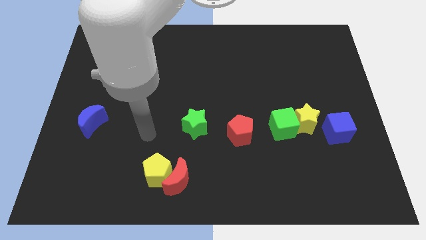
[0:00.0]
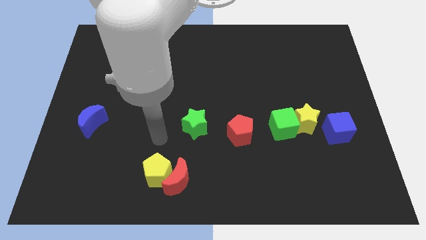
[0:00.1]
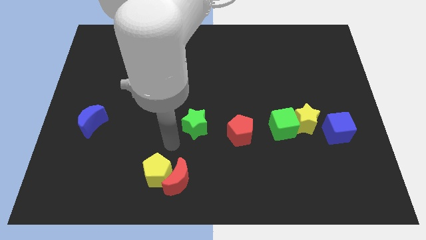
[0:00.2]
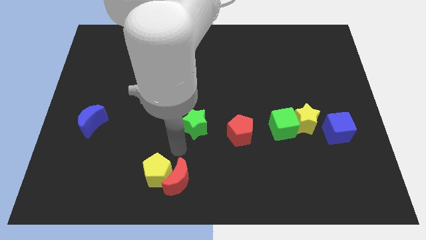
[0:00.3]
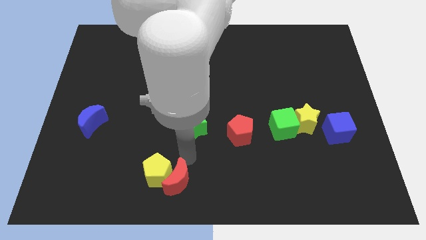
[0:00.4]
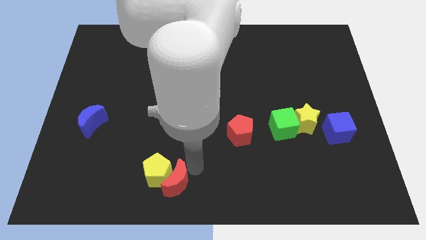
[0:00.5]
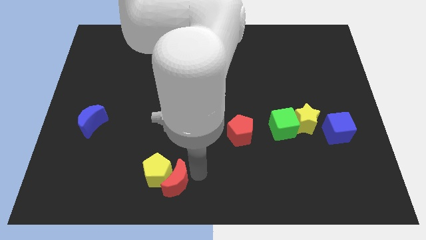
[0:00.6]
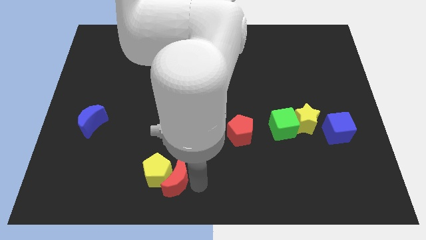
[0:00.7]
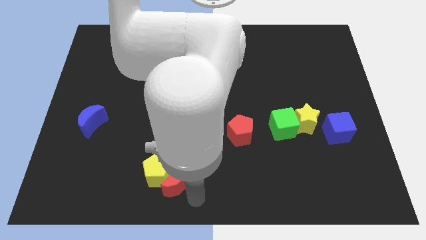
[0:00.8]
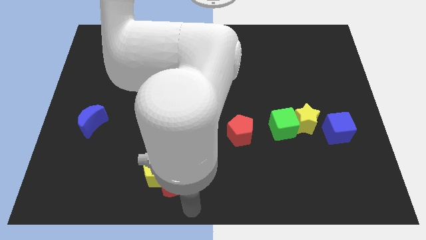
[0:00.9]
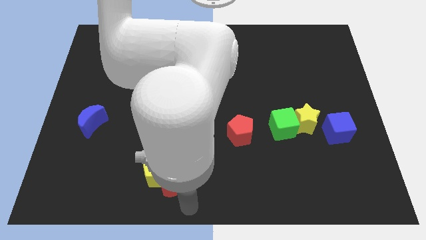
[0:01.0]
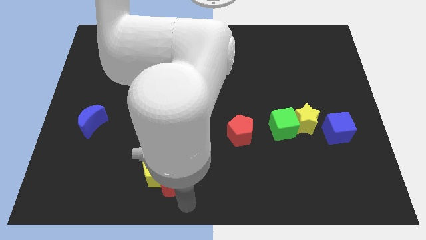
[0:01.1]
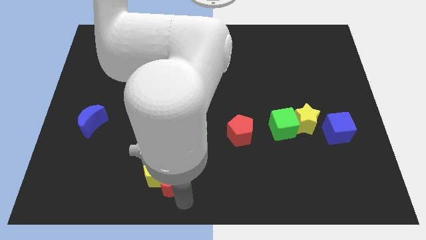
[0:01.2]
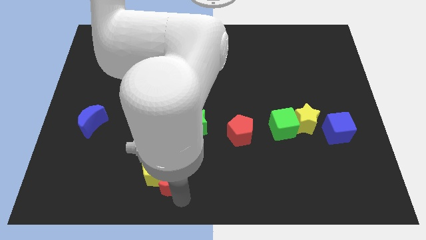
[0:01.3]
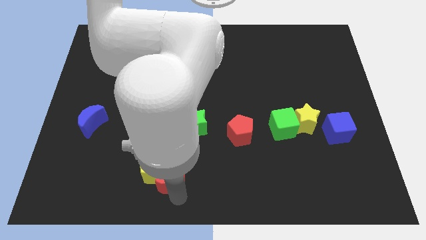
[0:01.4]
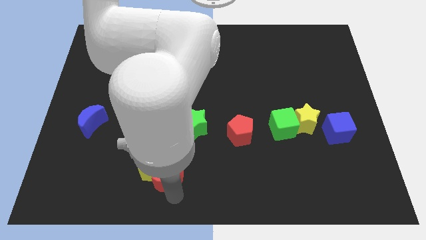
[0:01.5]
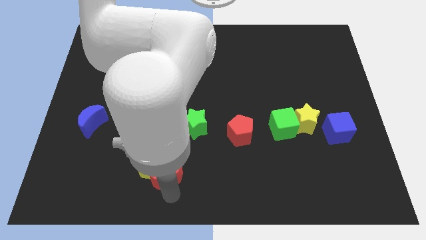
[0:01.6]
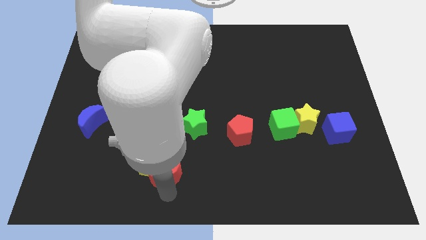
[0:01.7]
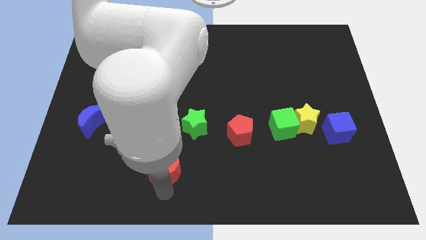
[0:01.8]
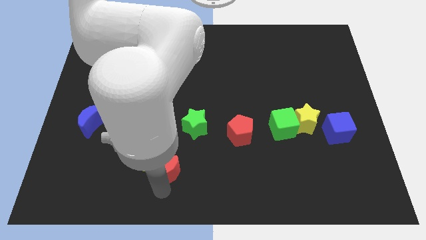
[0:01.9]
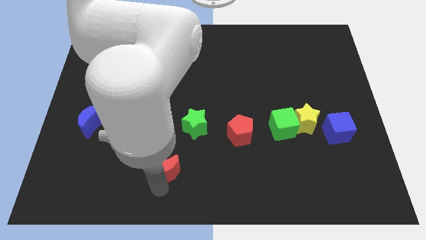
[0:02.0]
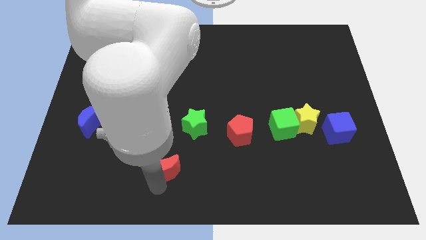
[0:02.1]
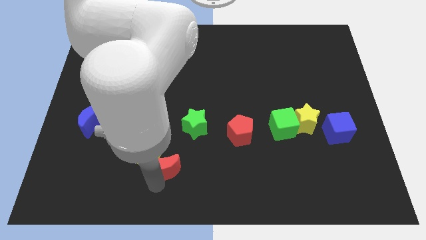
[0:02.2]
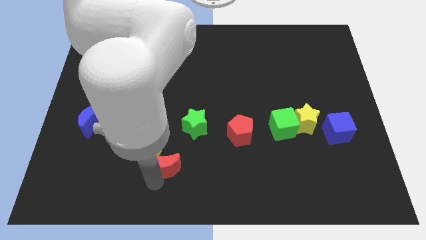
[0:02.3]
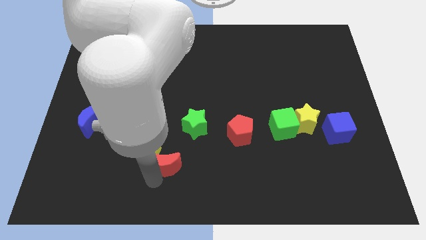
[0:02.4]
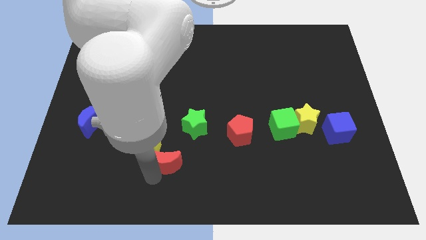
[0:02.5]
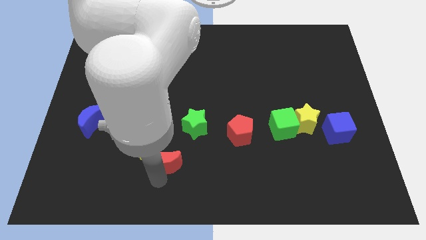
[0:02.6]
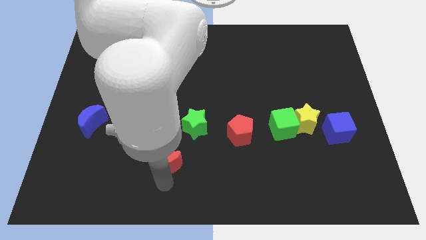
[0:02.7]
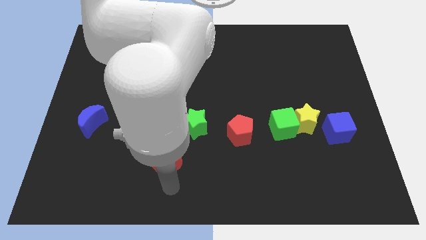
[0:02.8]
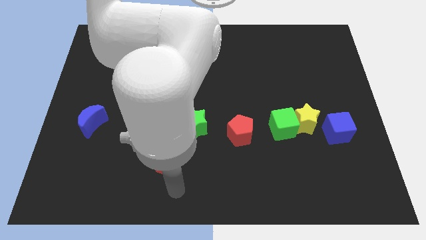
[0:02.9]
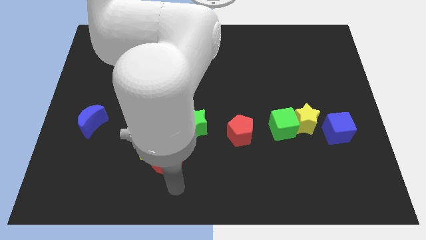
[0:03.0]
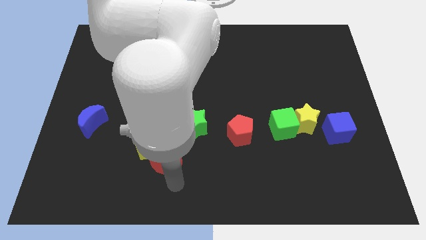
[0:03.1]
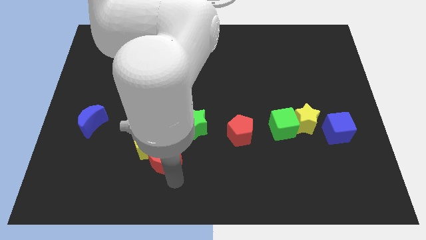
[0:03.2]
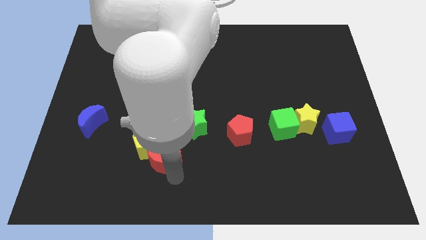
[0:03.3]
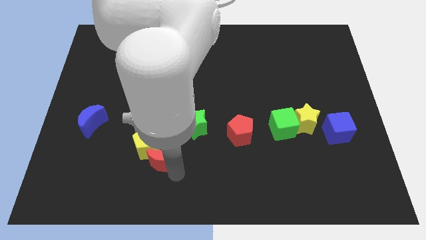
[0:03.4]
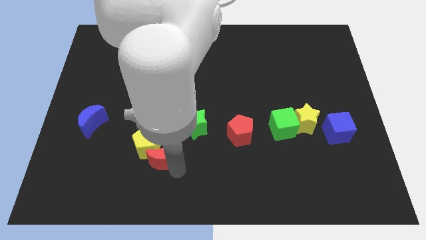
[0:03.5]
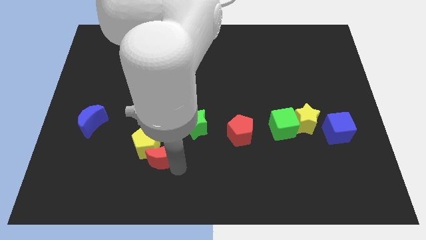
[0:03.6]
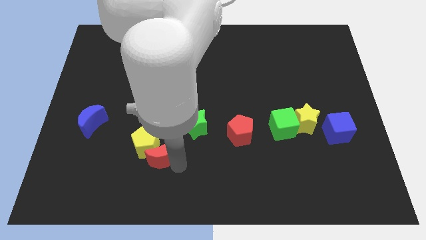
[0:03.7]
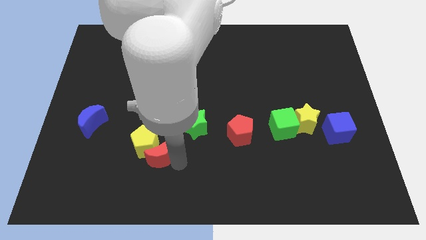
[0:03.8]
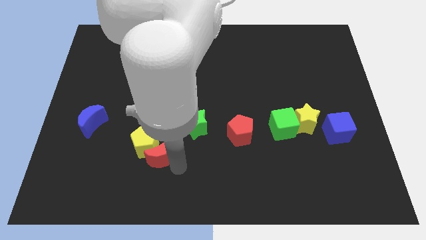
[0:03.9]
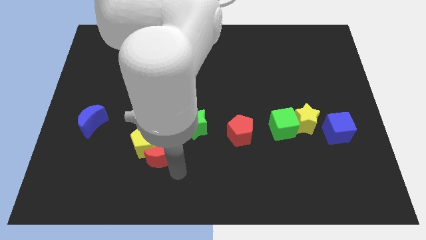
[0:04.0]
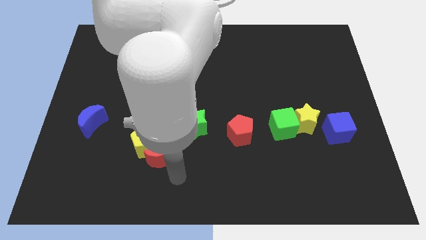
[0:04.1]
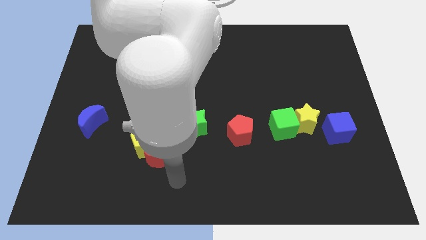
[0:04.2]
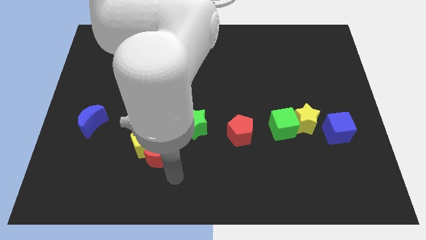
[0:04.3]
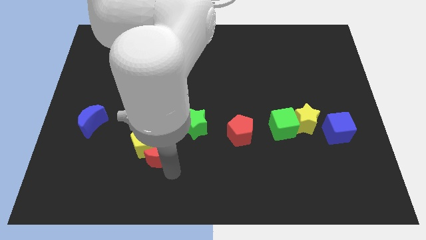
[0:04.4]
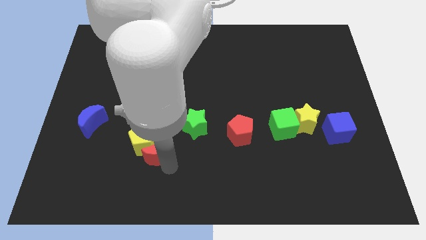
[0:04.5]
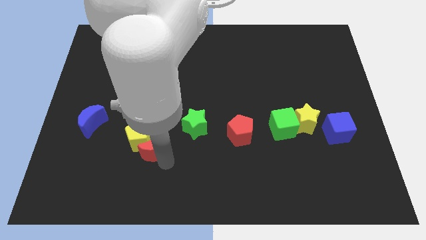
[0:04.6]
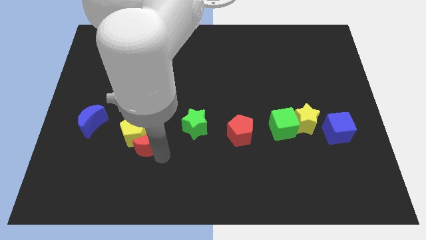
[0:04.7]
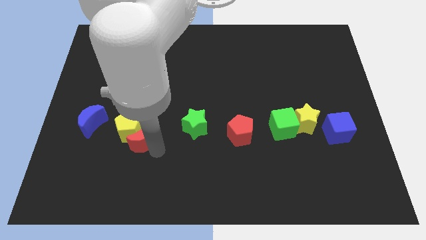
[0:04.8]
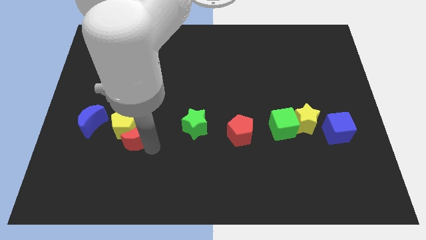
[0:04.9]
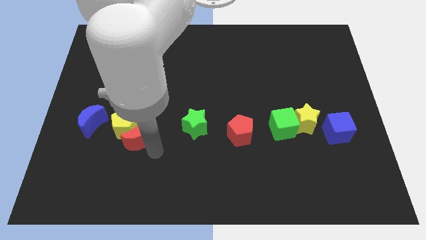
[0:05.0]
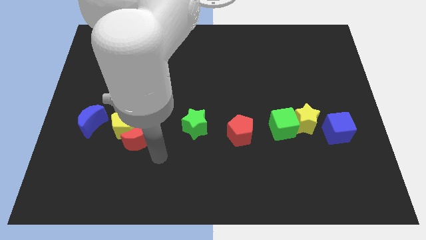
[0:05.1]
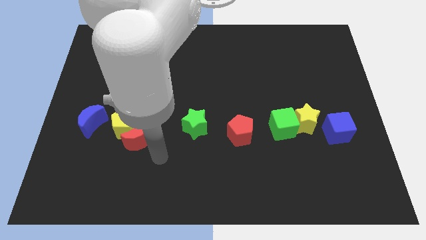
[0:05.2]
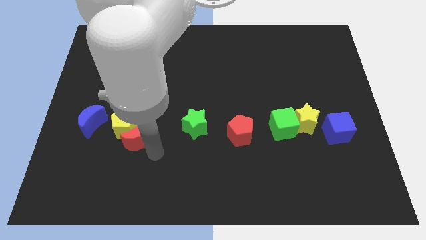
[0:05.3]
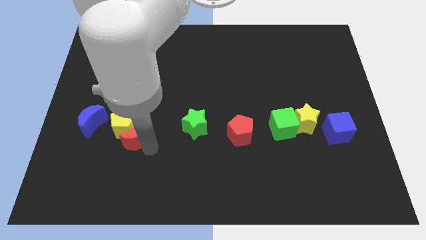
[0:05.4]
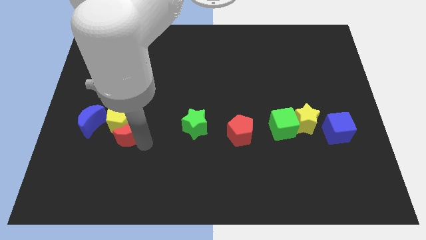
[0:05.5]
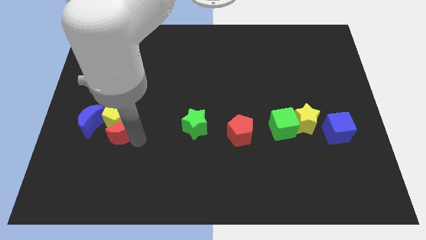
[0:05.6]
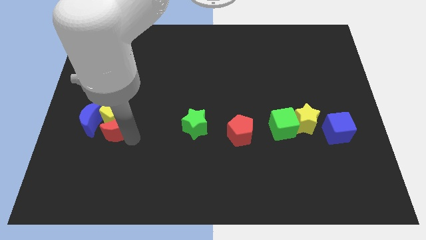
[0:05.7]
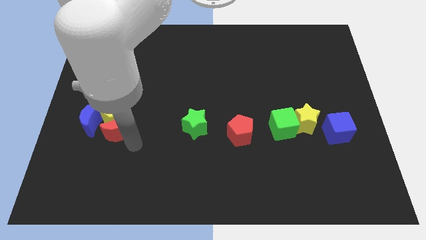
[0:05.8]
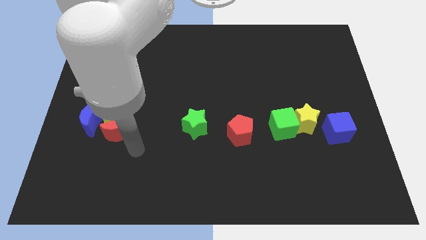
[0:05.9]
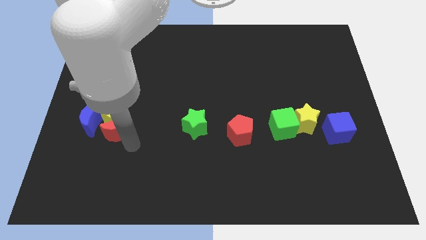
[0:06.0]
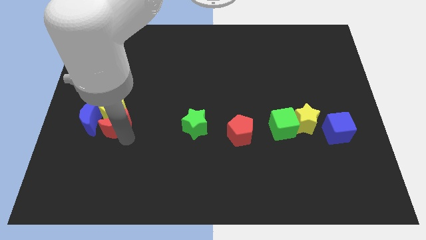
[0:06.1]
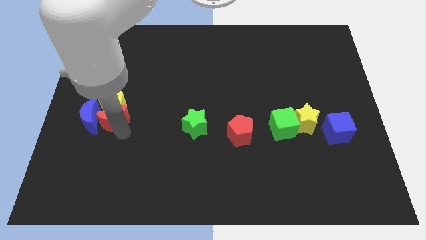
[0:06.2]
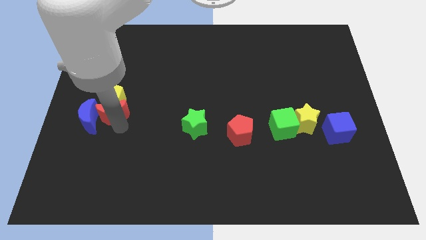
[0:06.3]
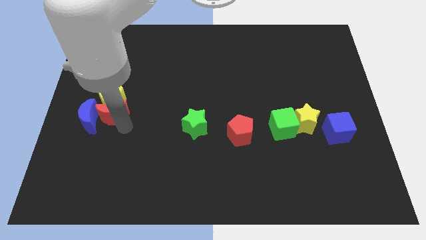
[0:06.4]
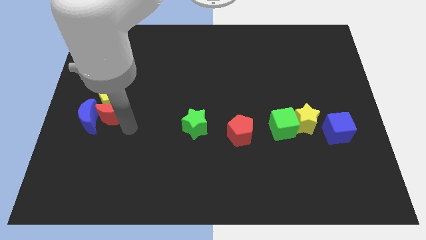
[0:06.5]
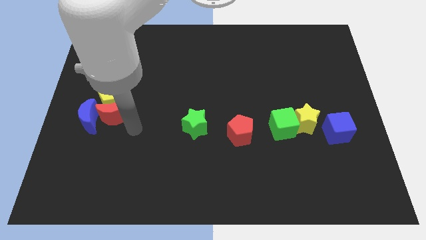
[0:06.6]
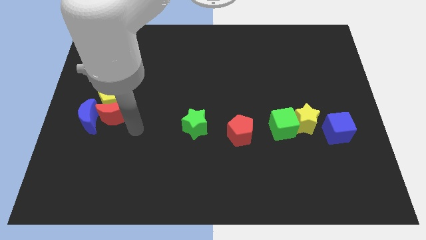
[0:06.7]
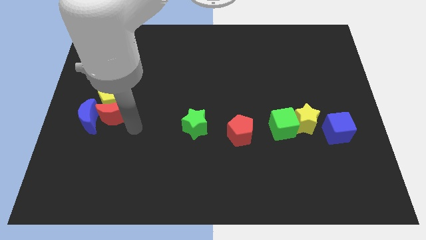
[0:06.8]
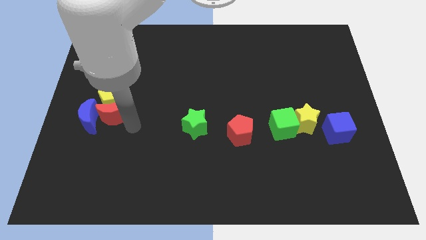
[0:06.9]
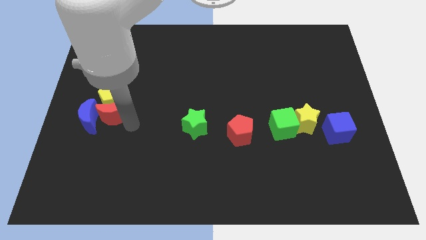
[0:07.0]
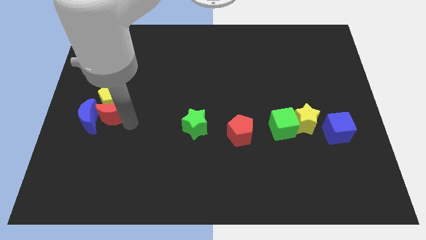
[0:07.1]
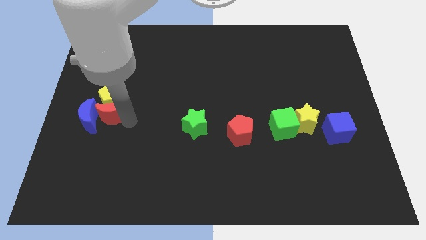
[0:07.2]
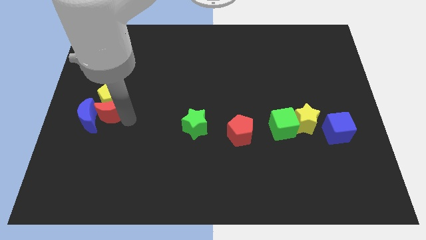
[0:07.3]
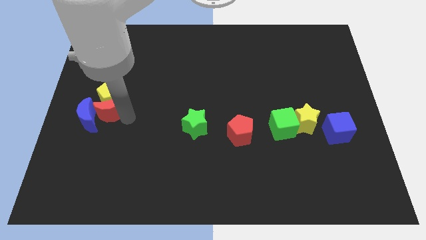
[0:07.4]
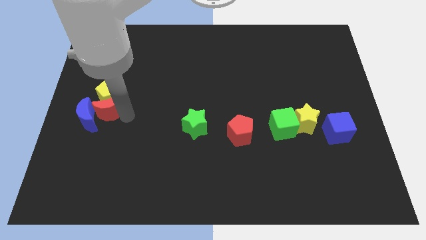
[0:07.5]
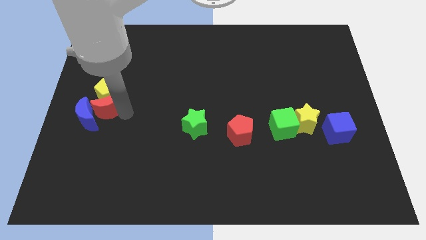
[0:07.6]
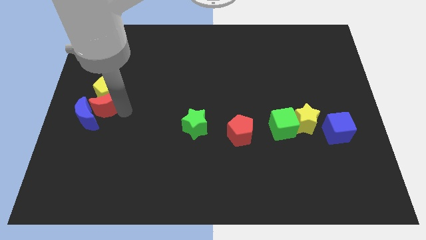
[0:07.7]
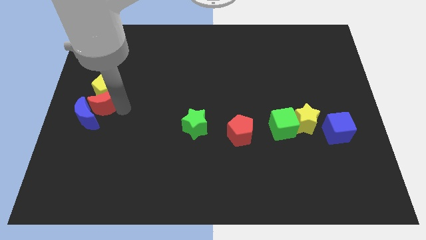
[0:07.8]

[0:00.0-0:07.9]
push the red moon to the left side
